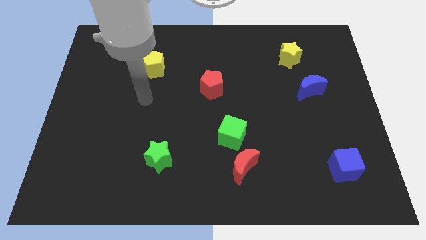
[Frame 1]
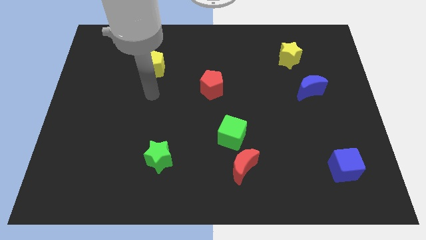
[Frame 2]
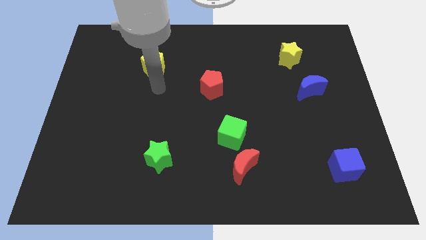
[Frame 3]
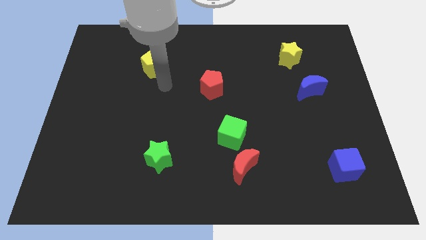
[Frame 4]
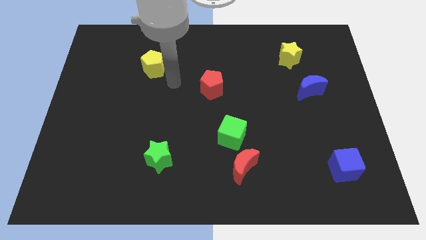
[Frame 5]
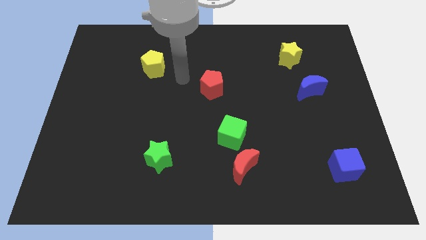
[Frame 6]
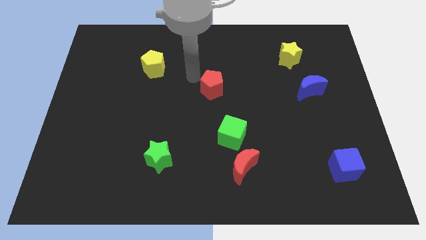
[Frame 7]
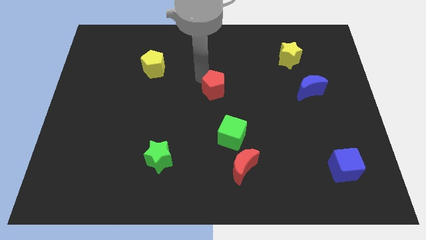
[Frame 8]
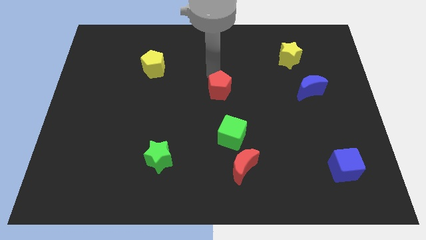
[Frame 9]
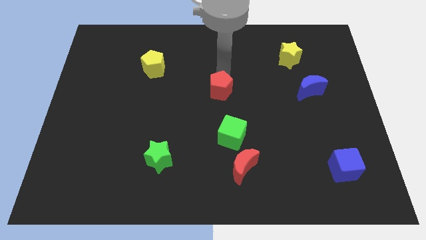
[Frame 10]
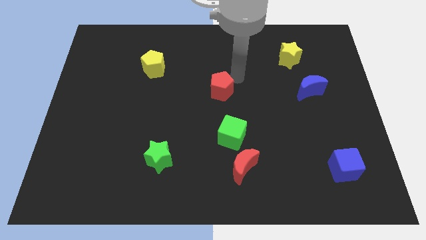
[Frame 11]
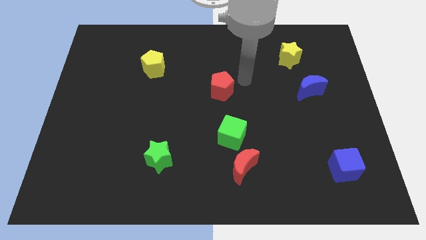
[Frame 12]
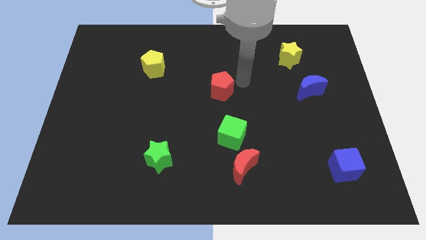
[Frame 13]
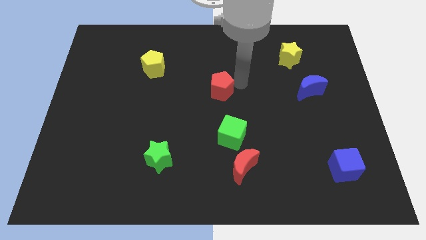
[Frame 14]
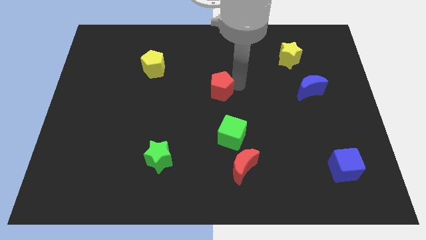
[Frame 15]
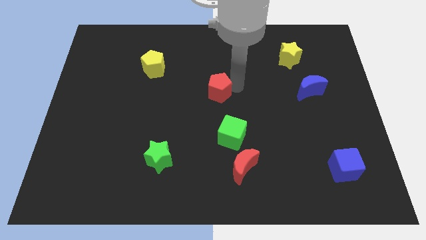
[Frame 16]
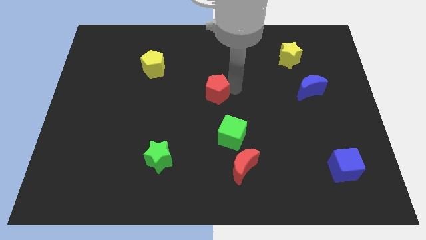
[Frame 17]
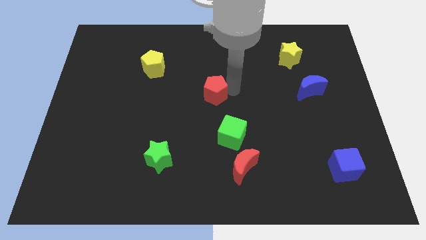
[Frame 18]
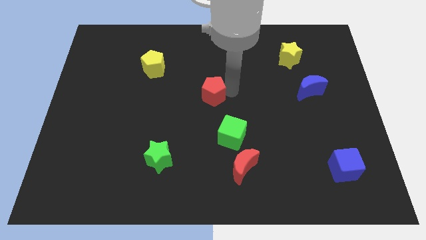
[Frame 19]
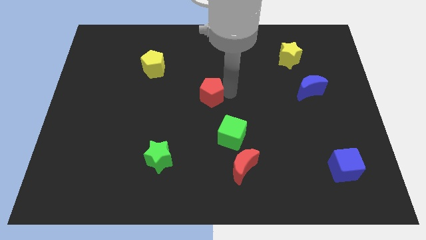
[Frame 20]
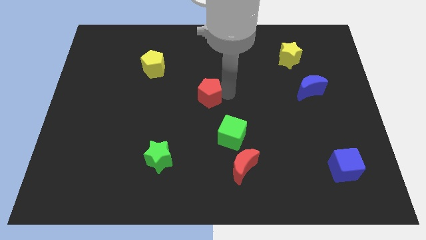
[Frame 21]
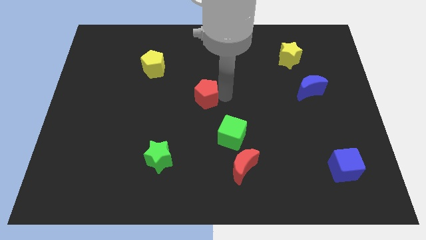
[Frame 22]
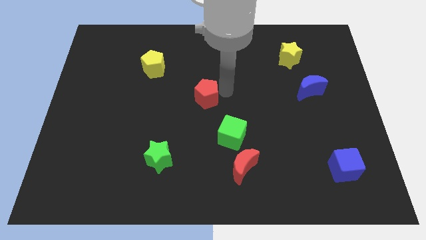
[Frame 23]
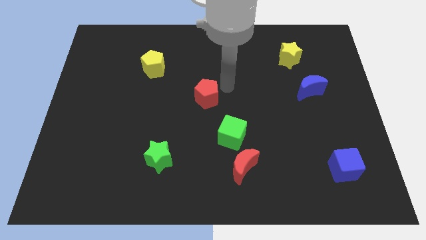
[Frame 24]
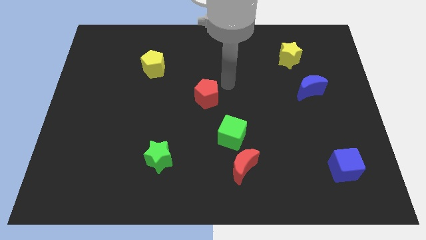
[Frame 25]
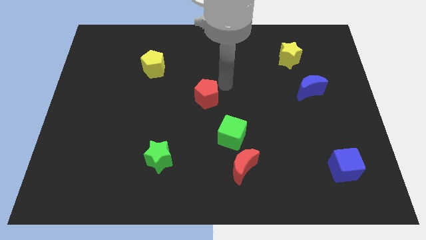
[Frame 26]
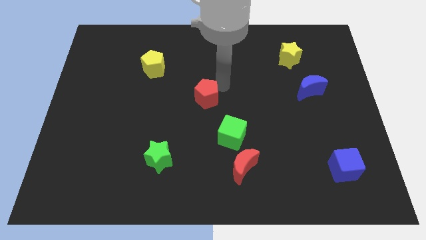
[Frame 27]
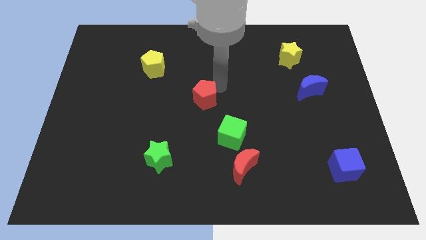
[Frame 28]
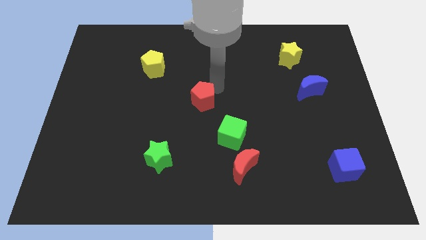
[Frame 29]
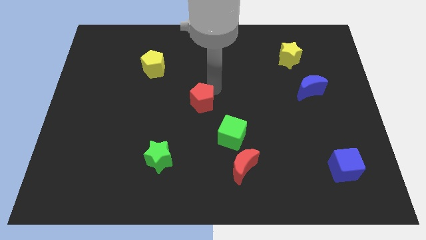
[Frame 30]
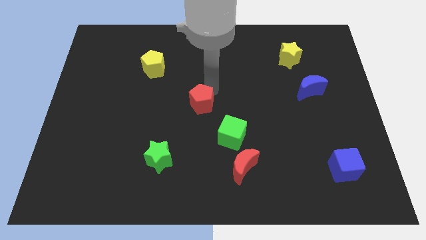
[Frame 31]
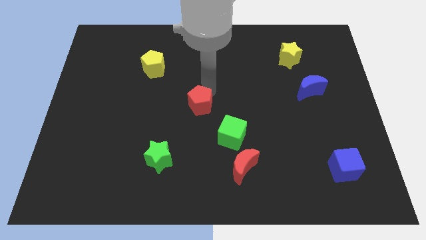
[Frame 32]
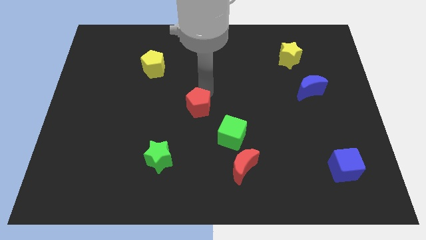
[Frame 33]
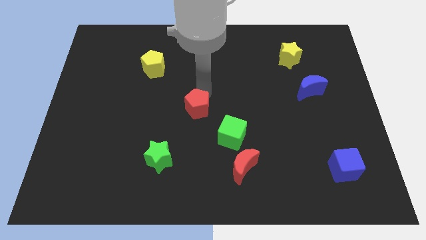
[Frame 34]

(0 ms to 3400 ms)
slightly slide the red pentagon down and left

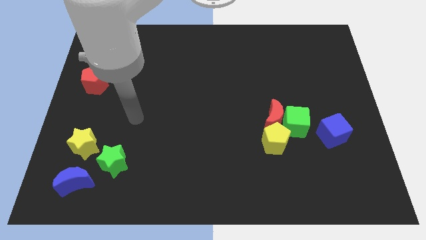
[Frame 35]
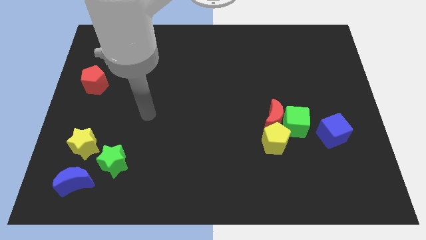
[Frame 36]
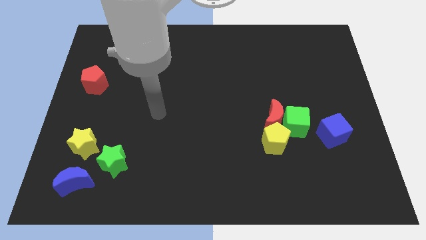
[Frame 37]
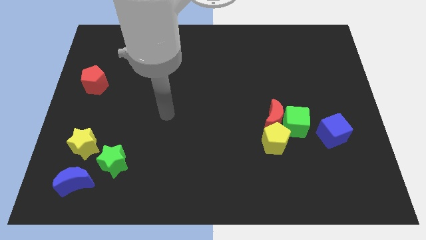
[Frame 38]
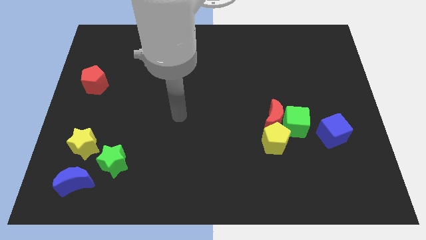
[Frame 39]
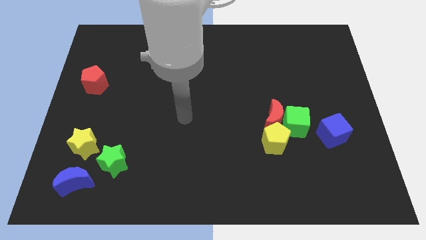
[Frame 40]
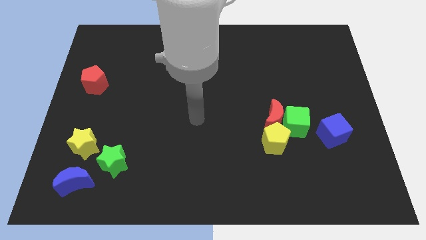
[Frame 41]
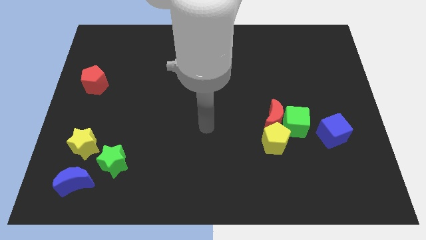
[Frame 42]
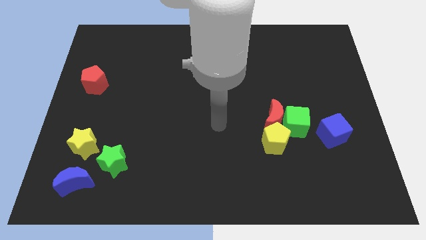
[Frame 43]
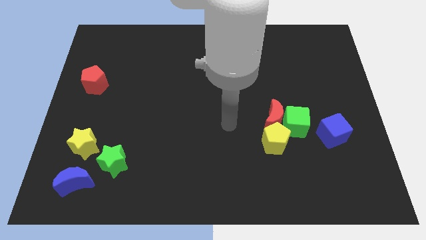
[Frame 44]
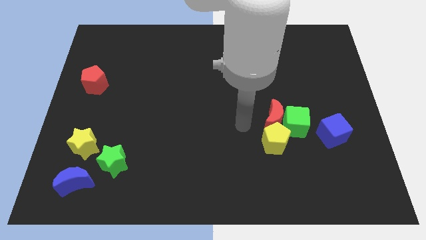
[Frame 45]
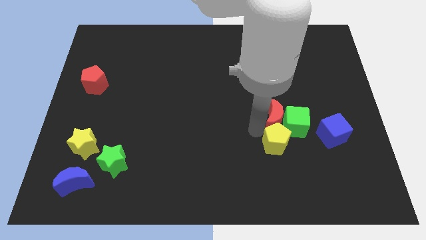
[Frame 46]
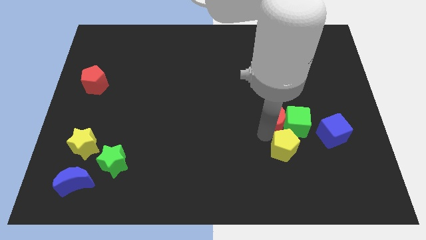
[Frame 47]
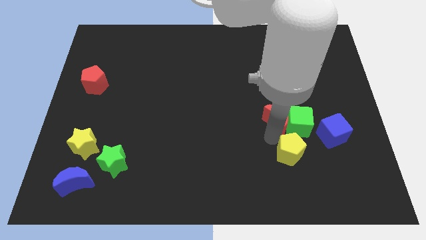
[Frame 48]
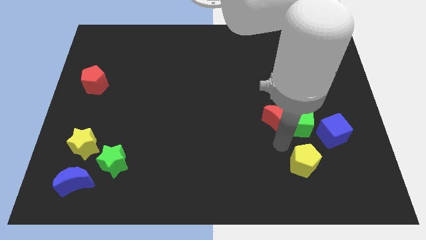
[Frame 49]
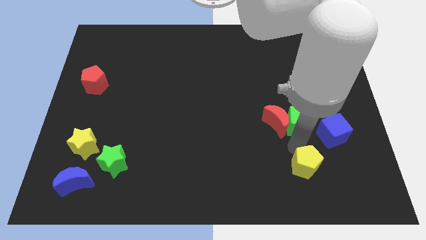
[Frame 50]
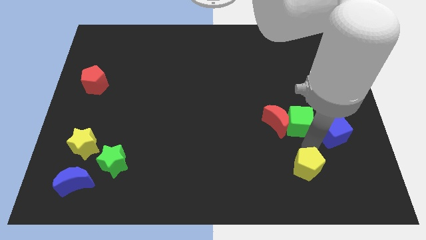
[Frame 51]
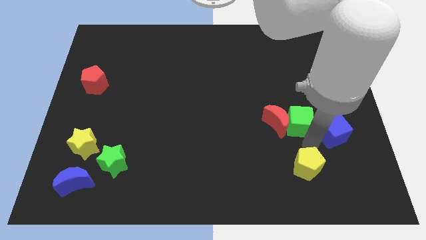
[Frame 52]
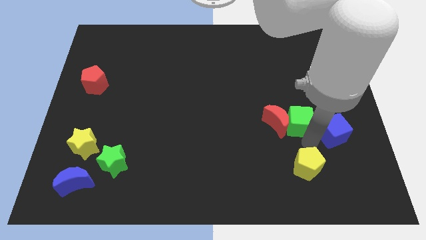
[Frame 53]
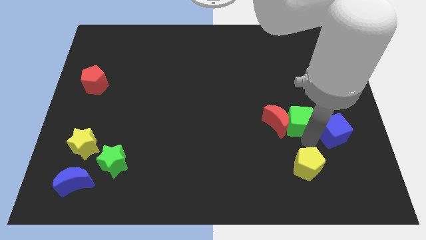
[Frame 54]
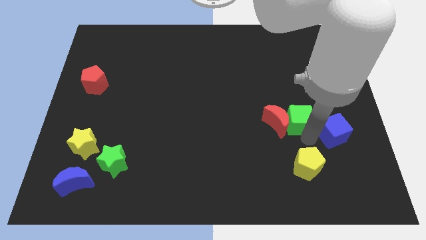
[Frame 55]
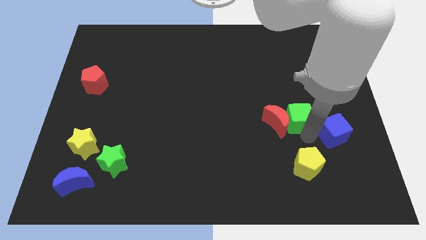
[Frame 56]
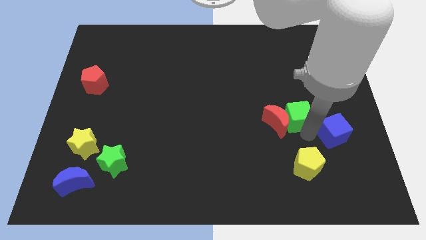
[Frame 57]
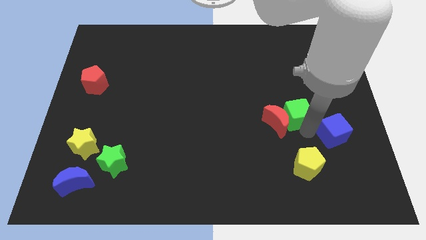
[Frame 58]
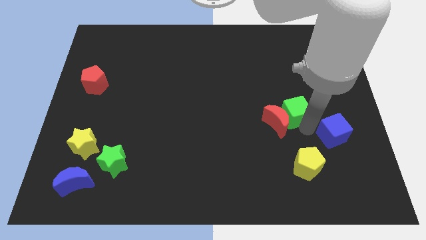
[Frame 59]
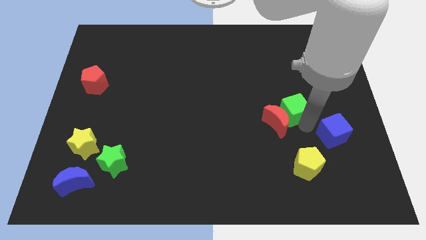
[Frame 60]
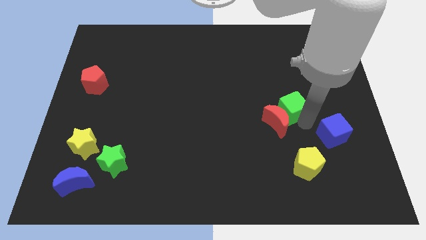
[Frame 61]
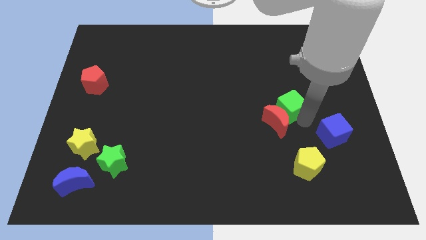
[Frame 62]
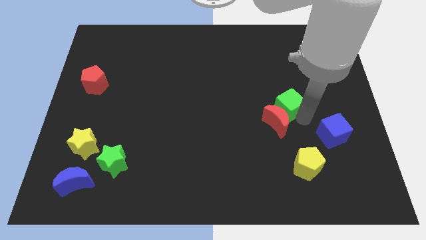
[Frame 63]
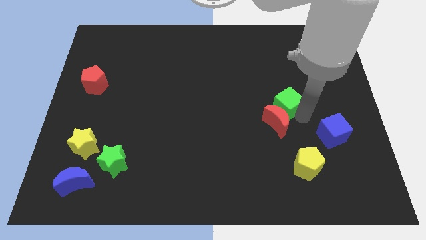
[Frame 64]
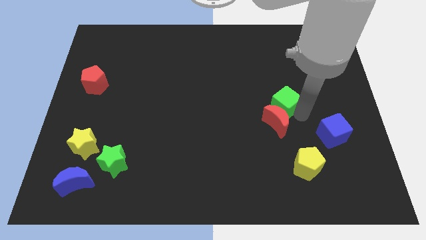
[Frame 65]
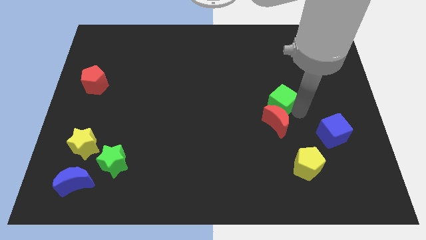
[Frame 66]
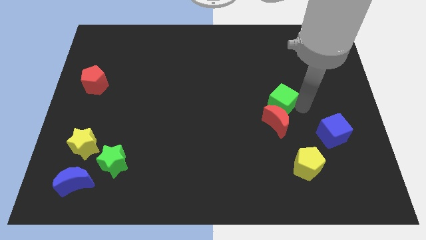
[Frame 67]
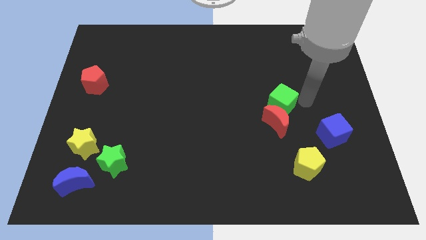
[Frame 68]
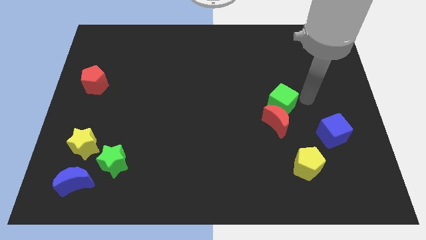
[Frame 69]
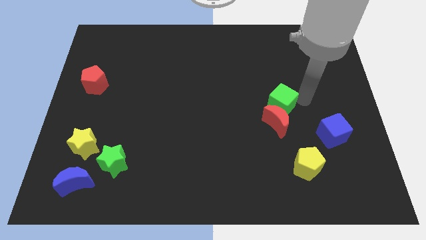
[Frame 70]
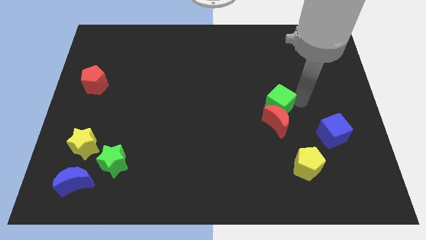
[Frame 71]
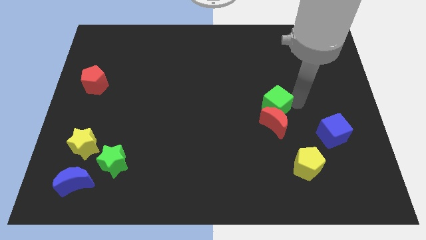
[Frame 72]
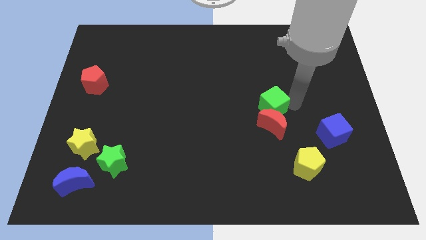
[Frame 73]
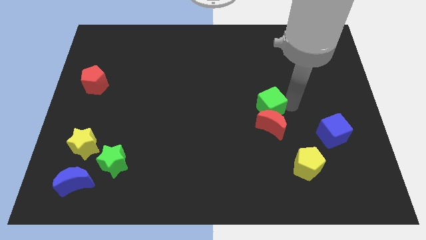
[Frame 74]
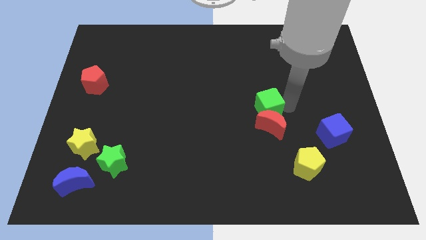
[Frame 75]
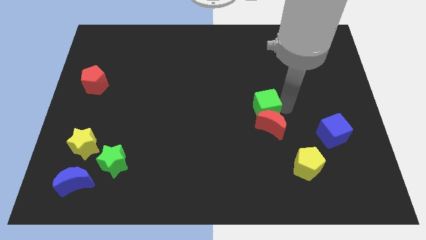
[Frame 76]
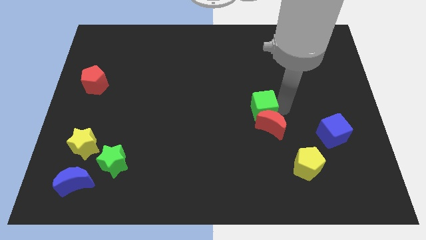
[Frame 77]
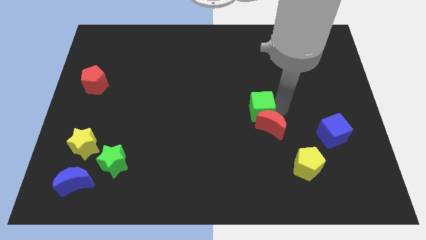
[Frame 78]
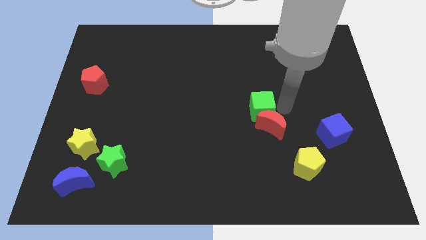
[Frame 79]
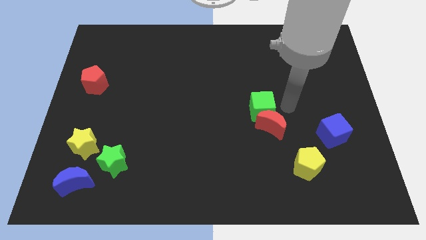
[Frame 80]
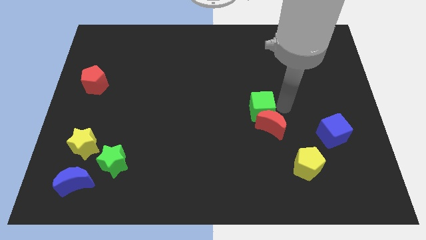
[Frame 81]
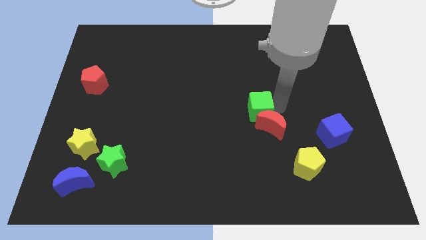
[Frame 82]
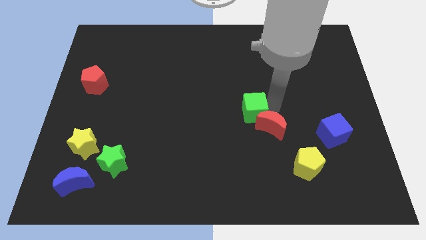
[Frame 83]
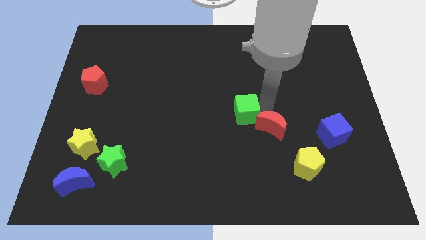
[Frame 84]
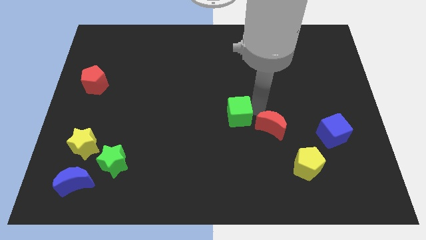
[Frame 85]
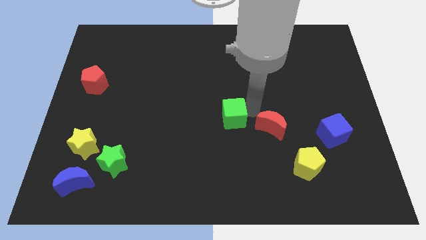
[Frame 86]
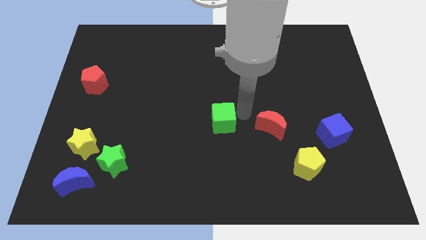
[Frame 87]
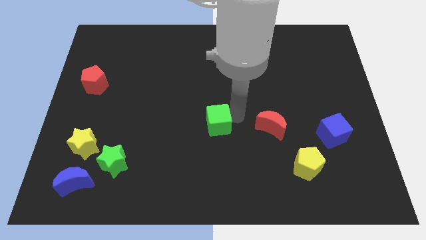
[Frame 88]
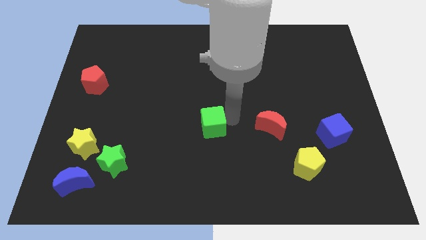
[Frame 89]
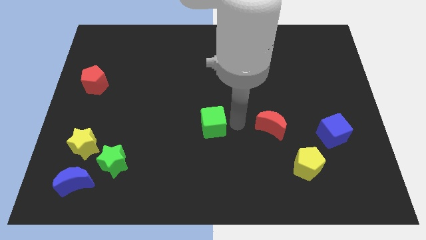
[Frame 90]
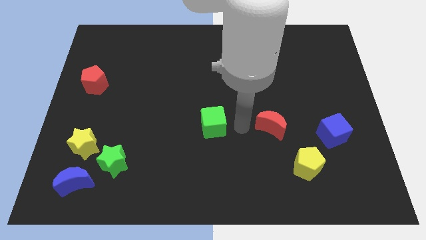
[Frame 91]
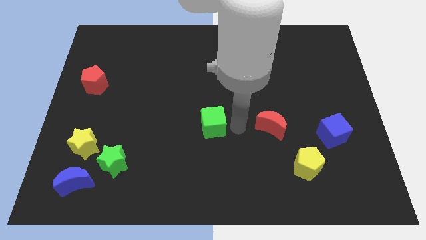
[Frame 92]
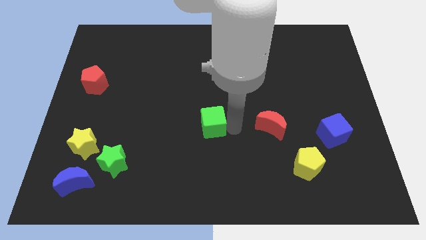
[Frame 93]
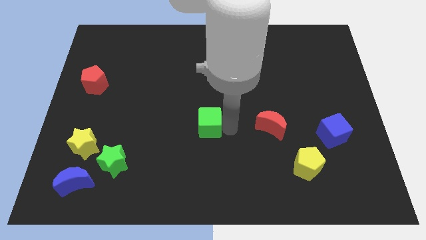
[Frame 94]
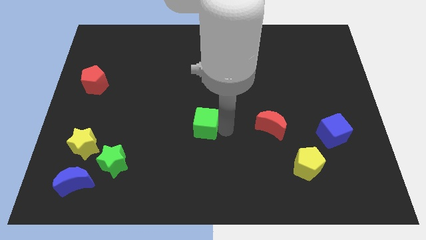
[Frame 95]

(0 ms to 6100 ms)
slide the green cube left
